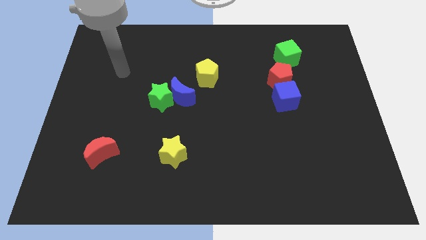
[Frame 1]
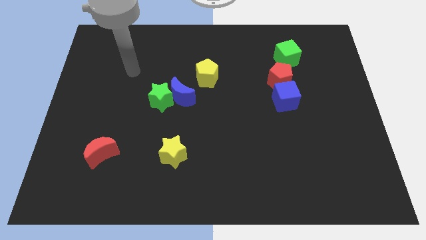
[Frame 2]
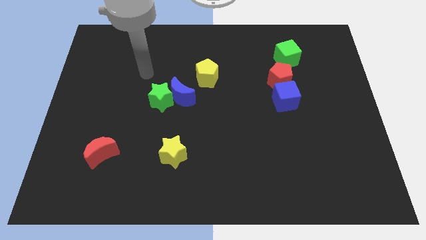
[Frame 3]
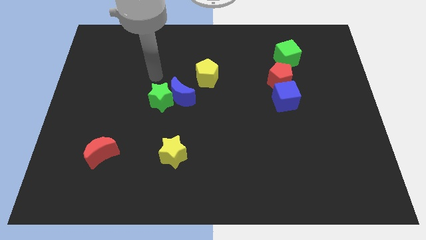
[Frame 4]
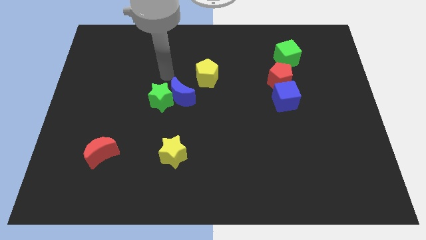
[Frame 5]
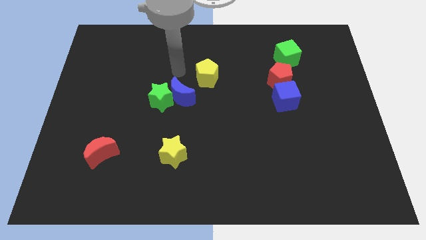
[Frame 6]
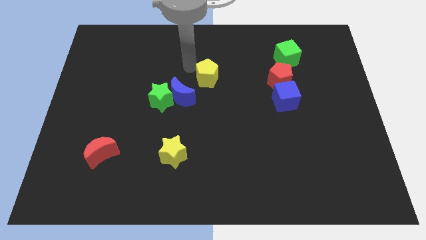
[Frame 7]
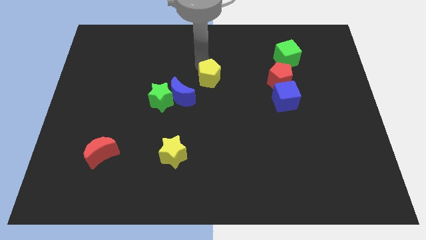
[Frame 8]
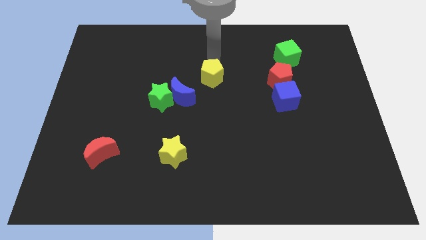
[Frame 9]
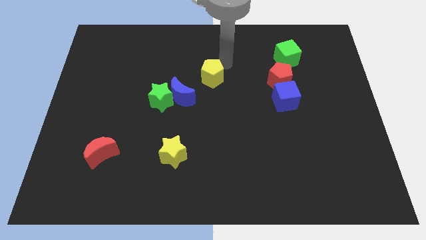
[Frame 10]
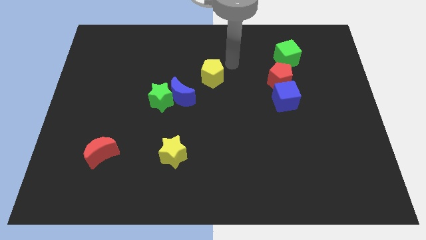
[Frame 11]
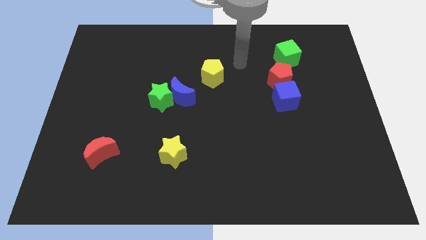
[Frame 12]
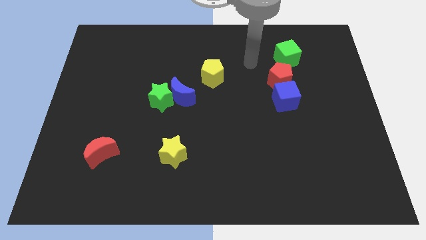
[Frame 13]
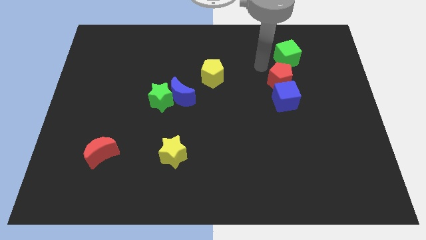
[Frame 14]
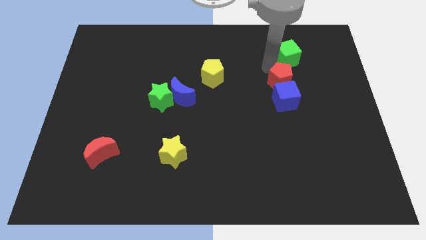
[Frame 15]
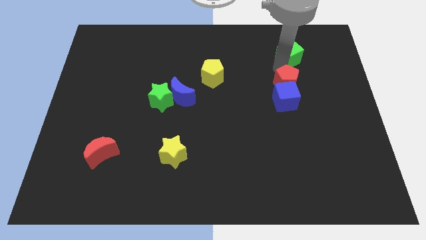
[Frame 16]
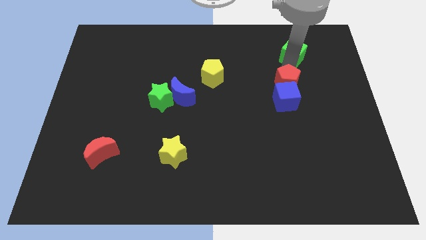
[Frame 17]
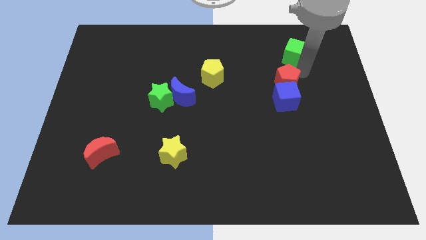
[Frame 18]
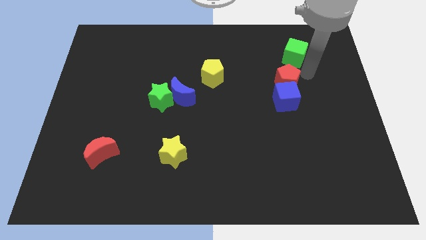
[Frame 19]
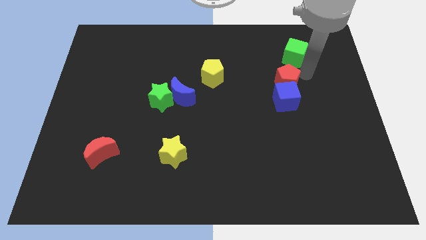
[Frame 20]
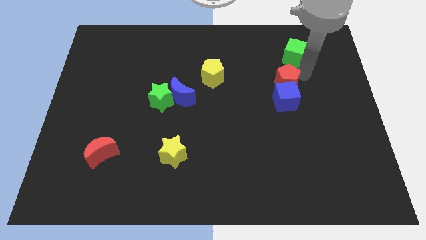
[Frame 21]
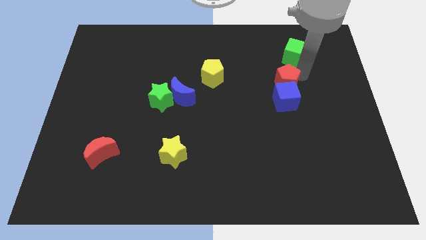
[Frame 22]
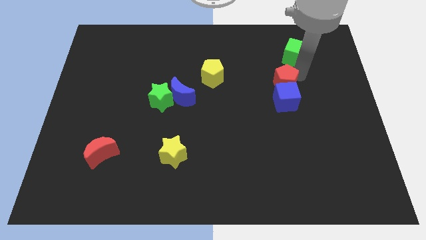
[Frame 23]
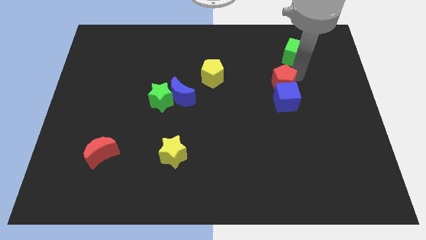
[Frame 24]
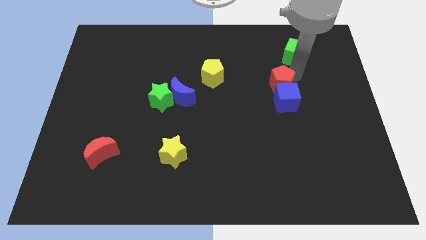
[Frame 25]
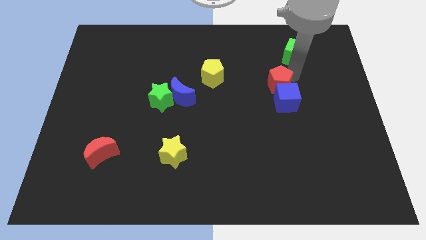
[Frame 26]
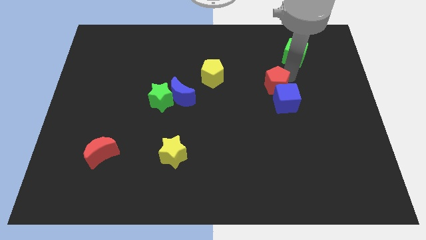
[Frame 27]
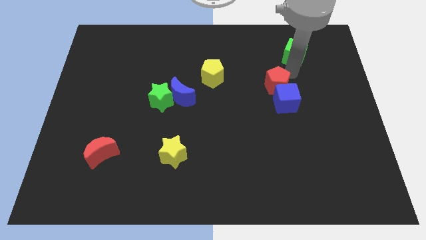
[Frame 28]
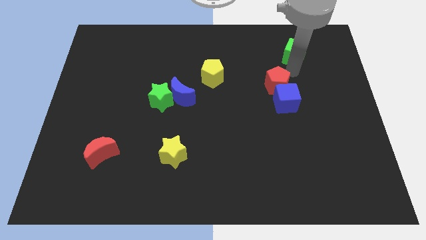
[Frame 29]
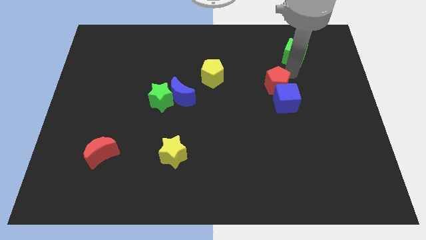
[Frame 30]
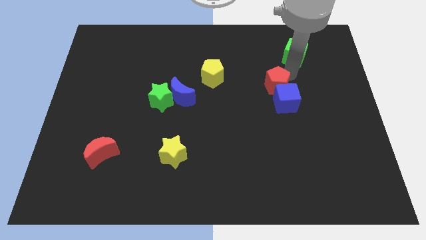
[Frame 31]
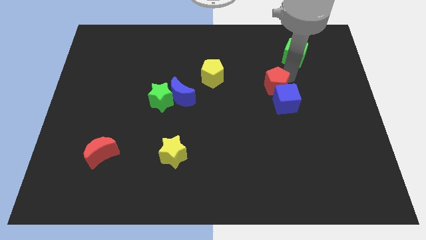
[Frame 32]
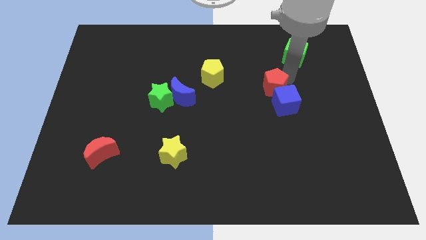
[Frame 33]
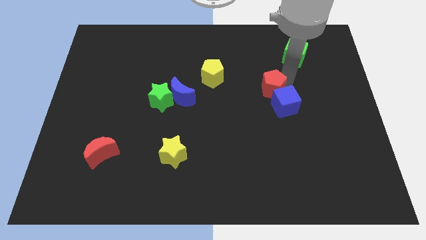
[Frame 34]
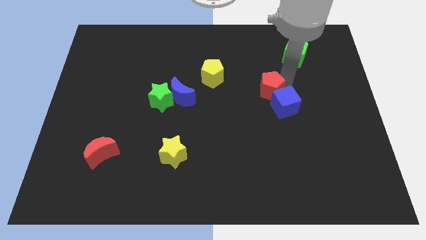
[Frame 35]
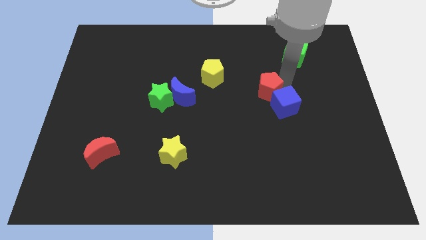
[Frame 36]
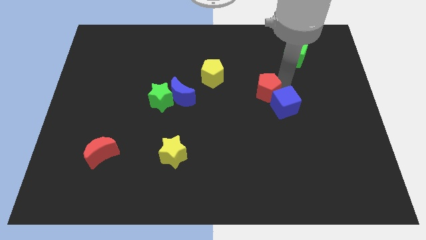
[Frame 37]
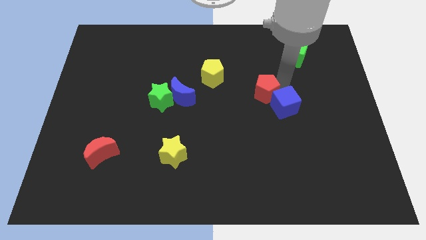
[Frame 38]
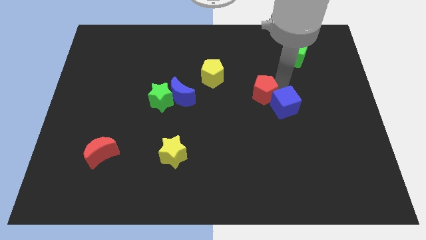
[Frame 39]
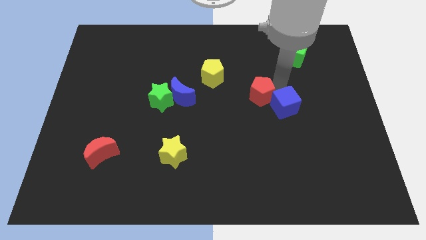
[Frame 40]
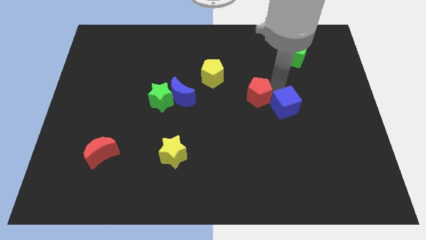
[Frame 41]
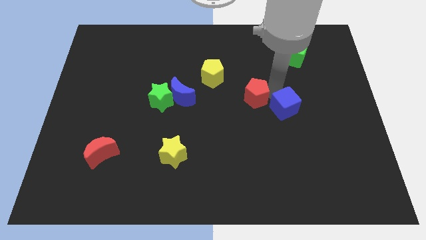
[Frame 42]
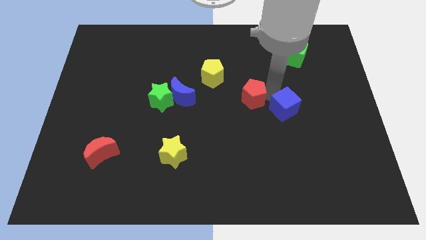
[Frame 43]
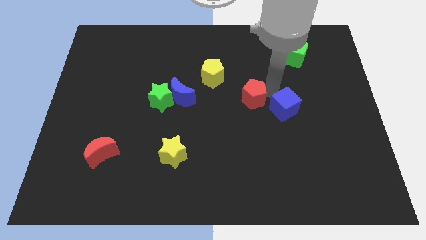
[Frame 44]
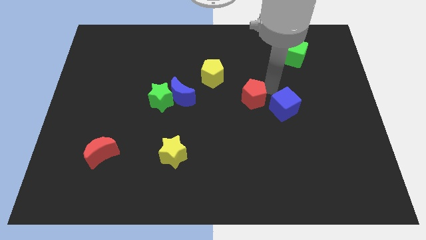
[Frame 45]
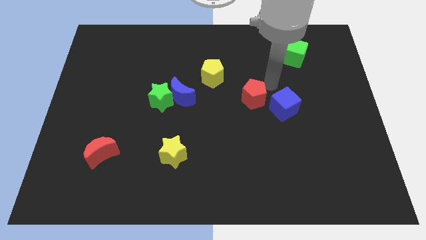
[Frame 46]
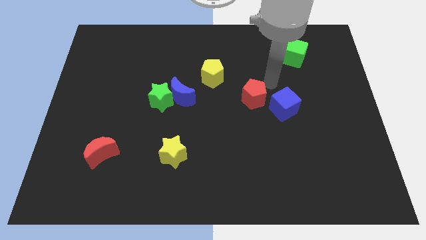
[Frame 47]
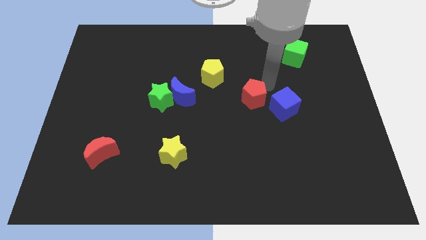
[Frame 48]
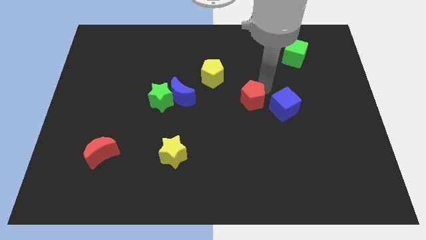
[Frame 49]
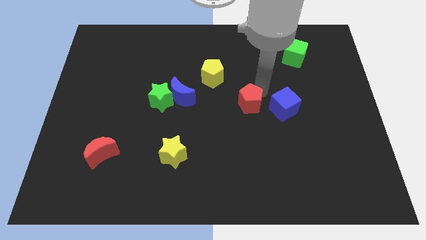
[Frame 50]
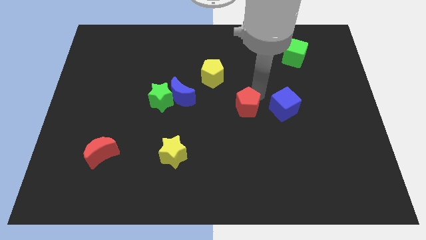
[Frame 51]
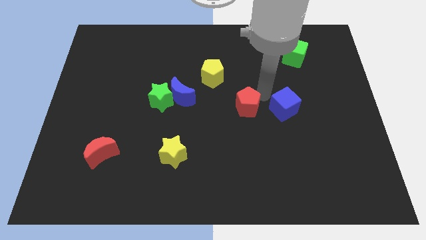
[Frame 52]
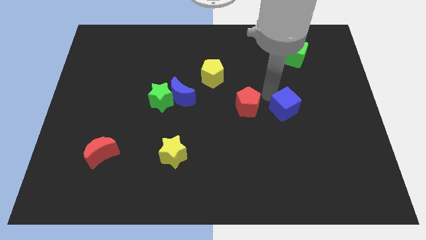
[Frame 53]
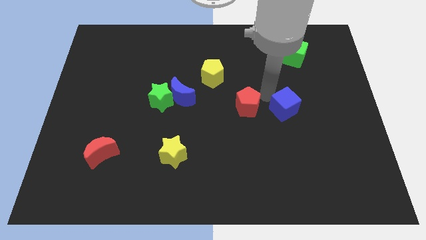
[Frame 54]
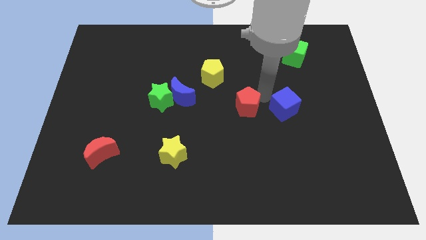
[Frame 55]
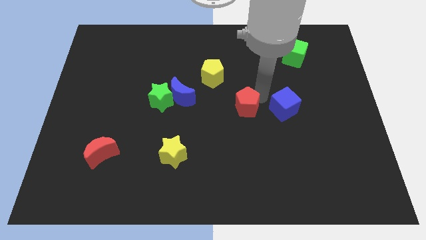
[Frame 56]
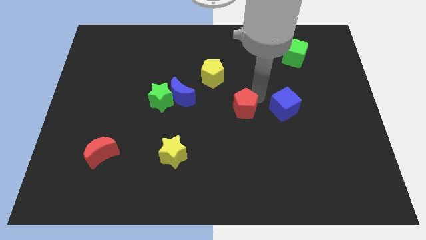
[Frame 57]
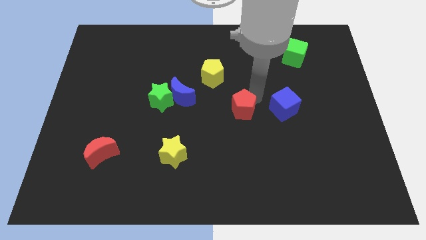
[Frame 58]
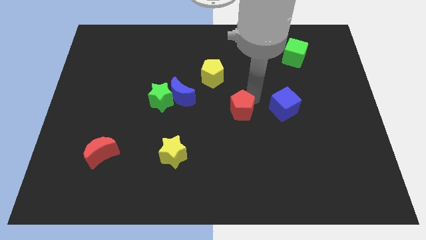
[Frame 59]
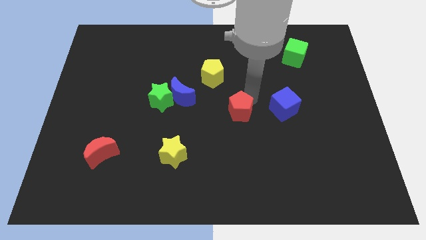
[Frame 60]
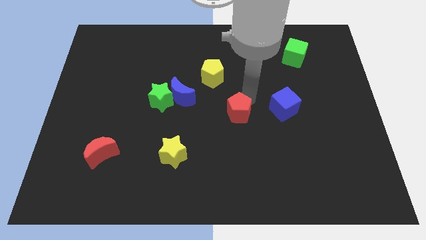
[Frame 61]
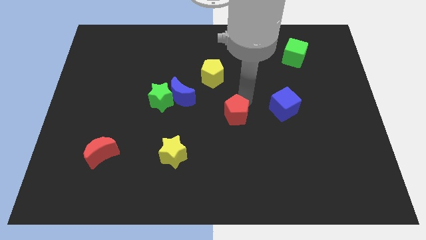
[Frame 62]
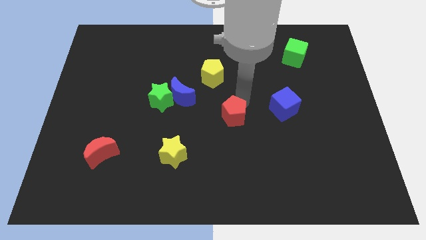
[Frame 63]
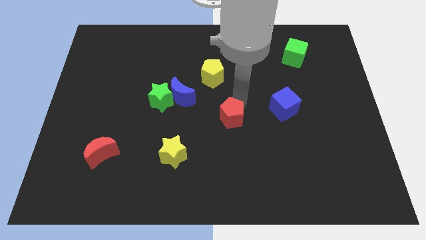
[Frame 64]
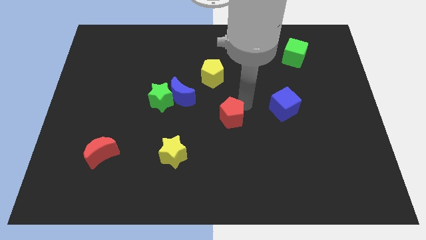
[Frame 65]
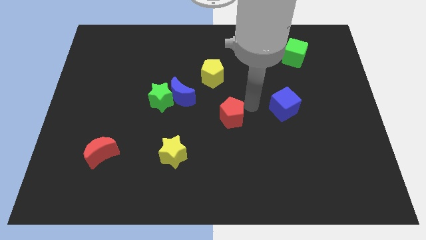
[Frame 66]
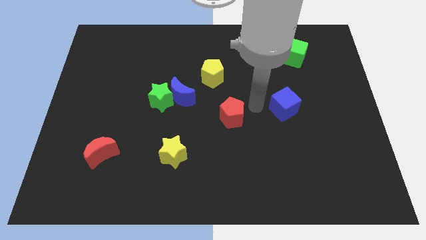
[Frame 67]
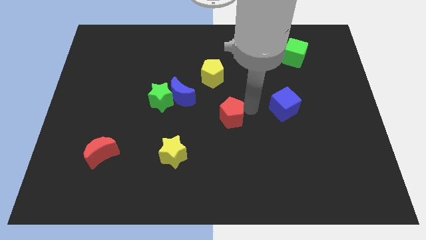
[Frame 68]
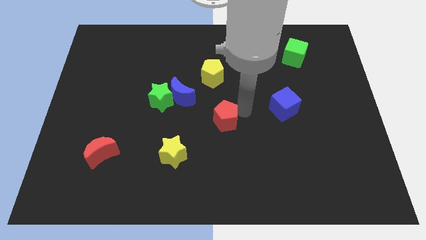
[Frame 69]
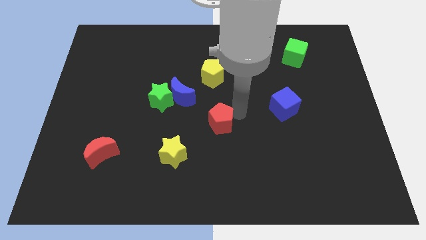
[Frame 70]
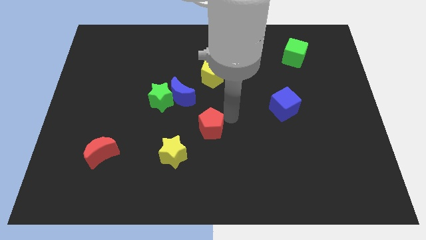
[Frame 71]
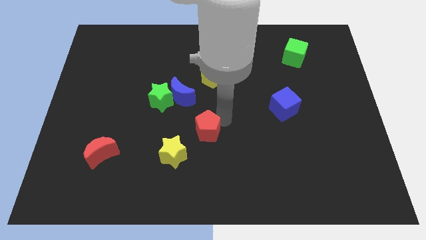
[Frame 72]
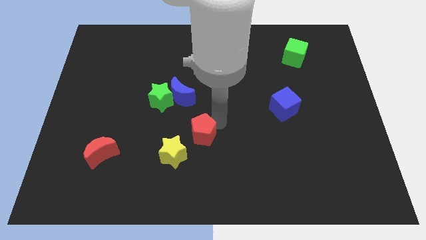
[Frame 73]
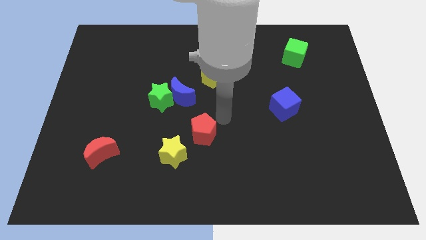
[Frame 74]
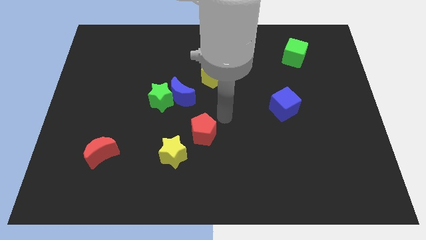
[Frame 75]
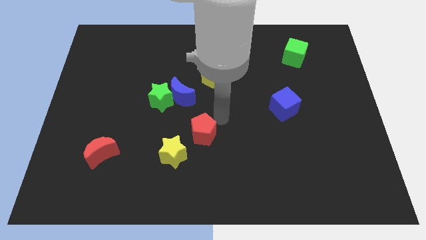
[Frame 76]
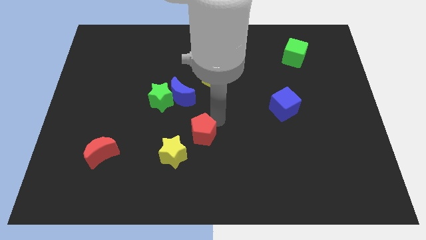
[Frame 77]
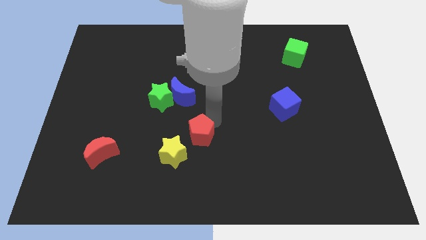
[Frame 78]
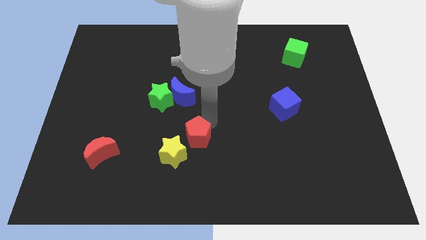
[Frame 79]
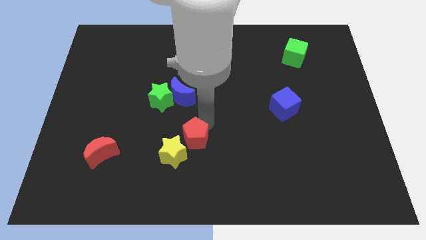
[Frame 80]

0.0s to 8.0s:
slide the red pentagon next to the yellow star
